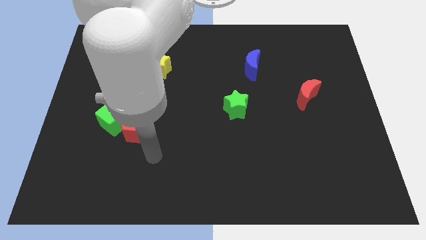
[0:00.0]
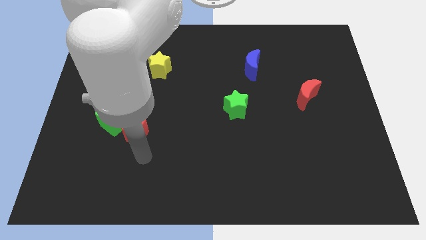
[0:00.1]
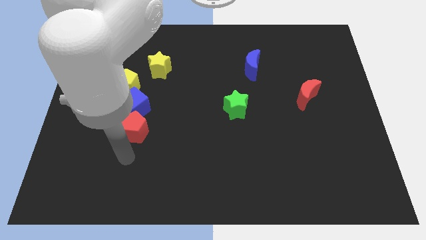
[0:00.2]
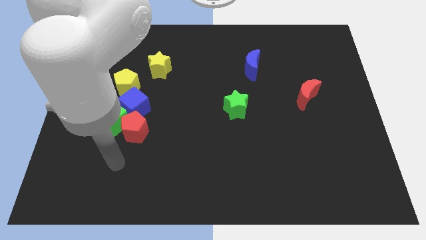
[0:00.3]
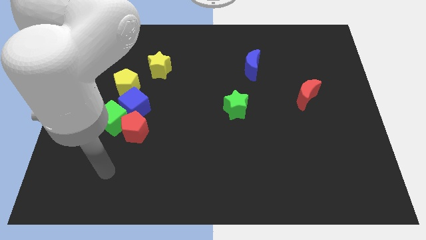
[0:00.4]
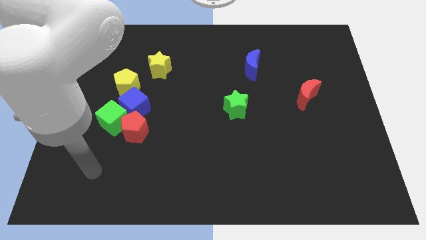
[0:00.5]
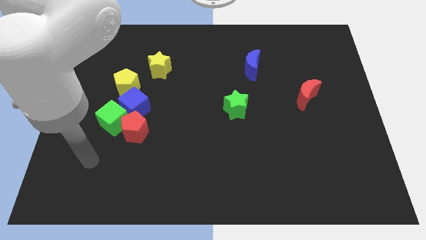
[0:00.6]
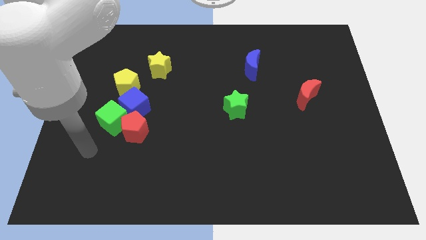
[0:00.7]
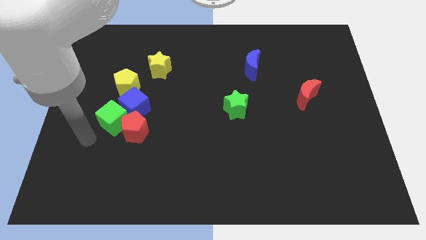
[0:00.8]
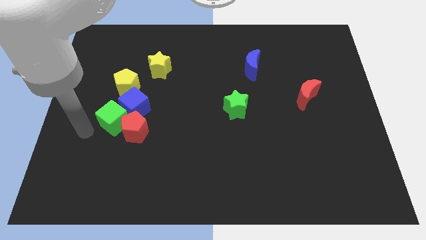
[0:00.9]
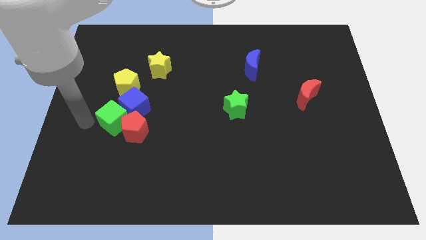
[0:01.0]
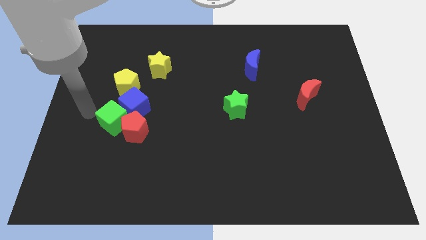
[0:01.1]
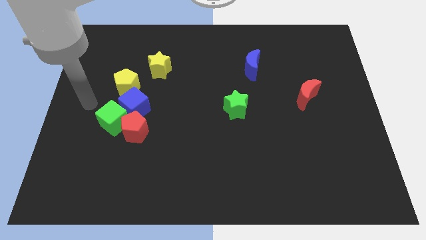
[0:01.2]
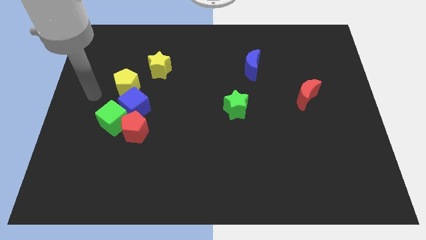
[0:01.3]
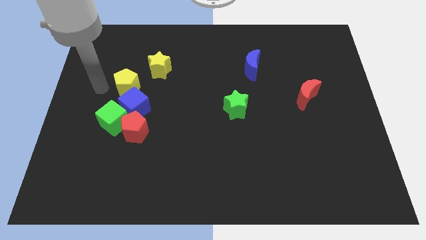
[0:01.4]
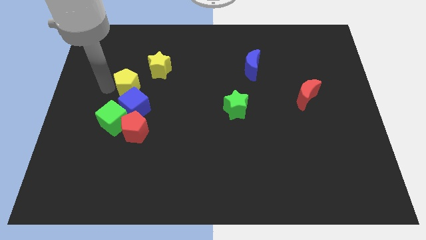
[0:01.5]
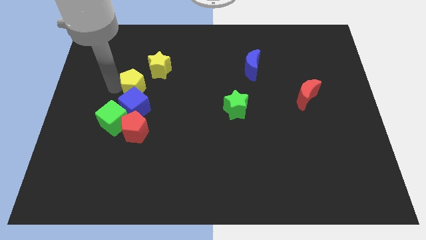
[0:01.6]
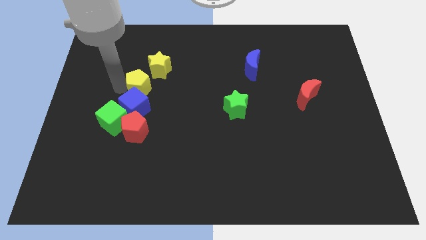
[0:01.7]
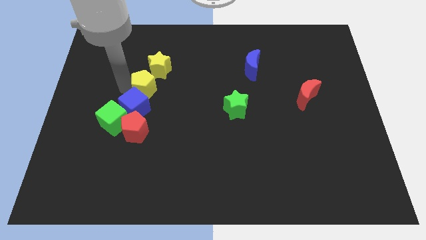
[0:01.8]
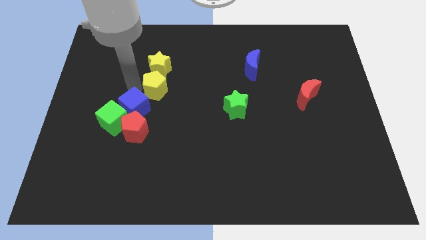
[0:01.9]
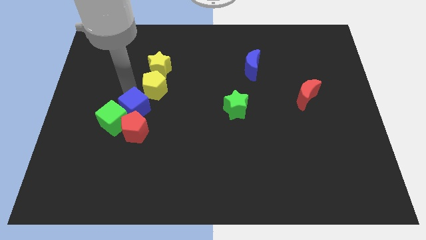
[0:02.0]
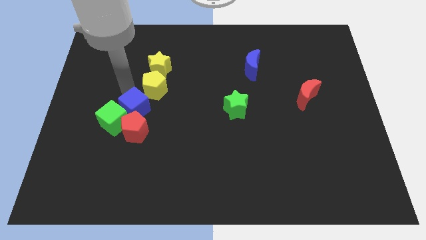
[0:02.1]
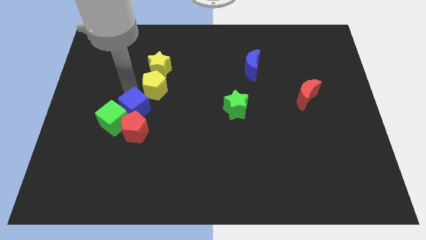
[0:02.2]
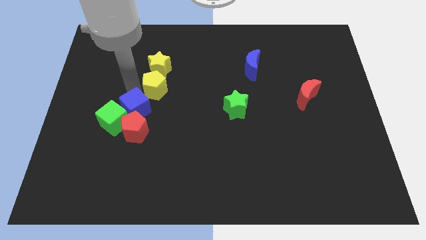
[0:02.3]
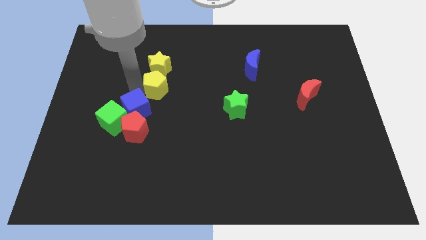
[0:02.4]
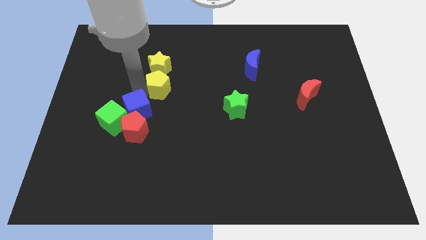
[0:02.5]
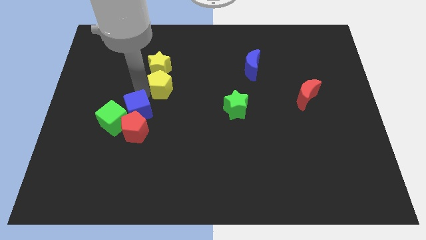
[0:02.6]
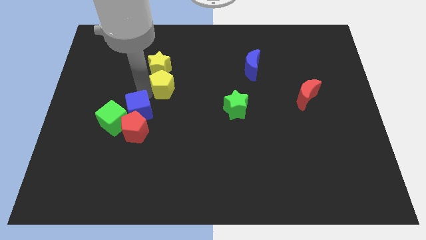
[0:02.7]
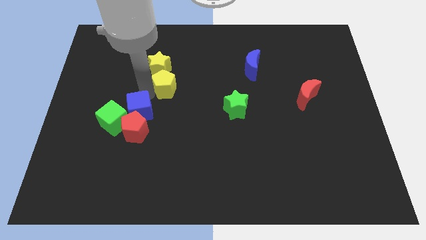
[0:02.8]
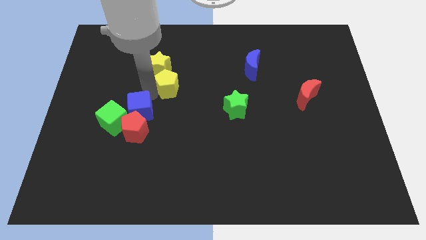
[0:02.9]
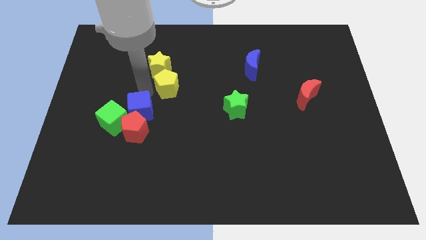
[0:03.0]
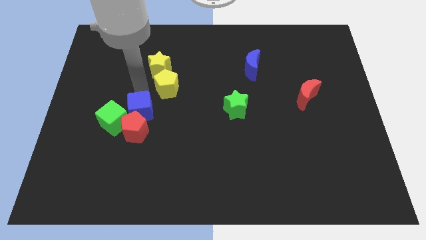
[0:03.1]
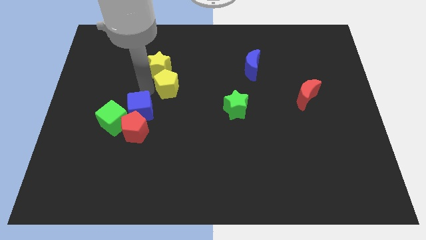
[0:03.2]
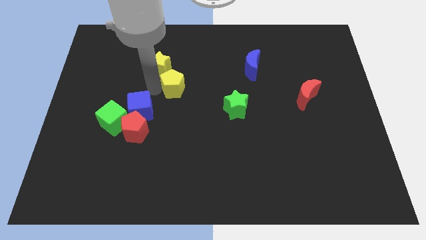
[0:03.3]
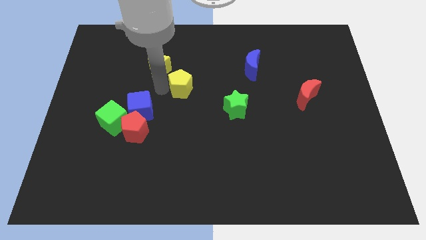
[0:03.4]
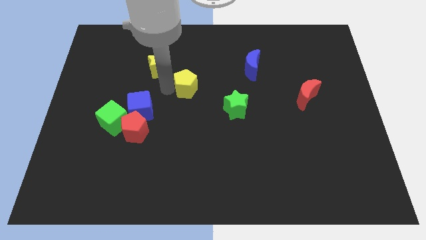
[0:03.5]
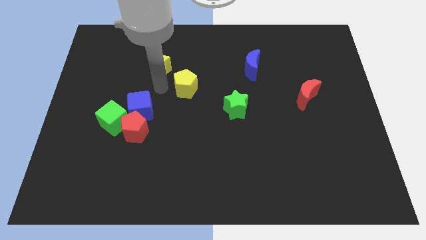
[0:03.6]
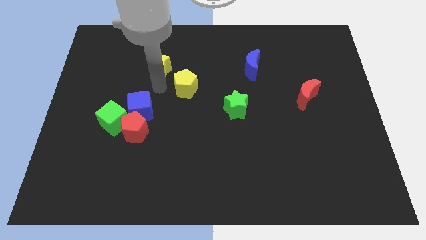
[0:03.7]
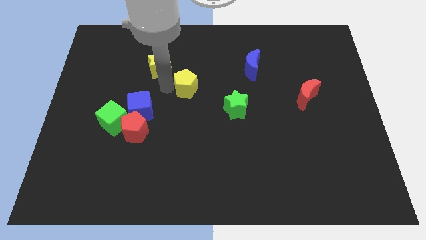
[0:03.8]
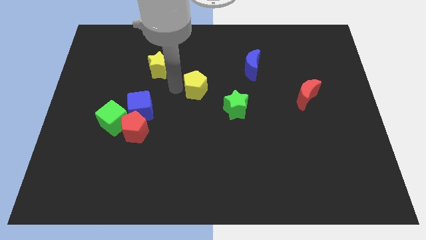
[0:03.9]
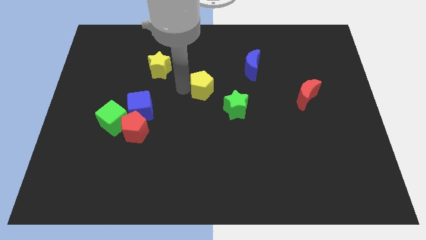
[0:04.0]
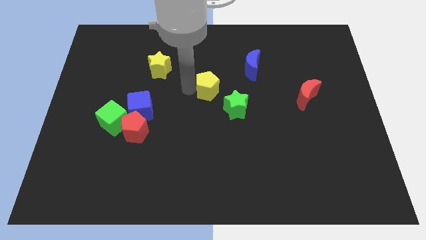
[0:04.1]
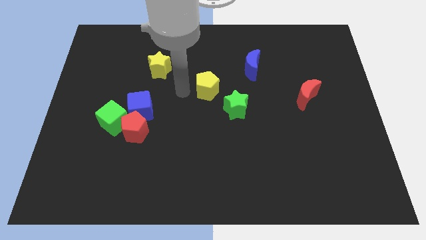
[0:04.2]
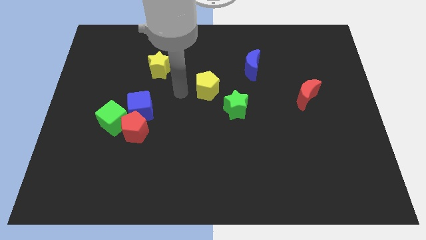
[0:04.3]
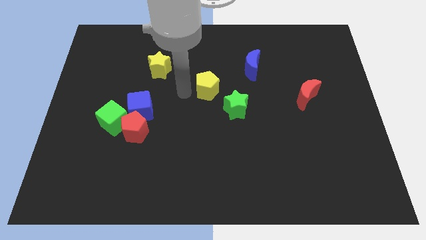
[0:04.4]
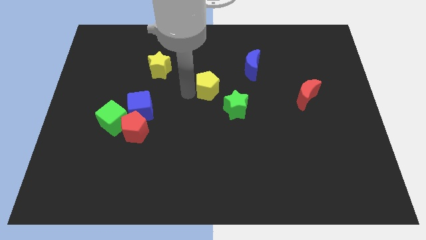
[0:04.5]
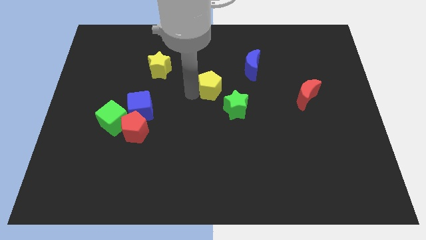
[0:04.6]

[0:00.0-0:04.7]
move the yellow pentagon to the right

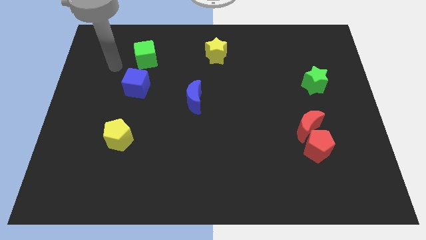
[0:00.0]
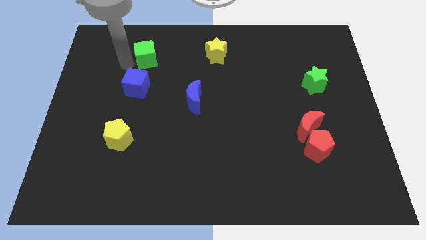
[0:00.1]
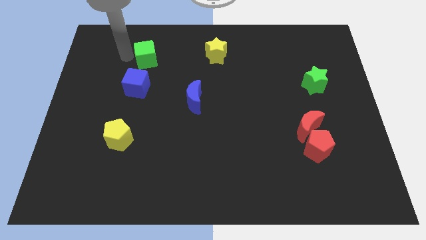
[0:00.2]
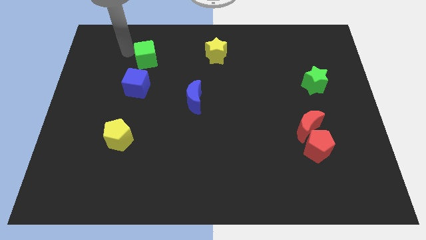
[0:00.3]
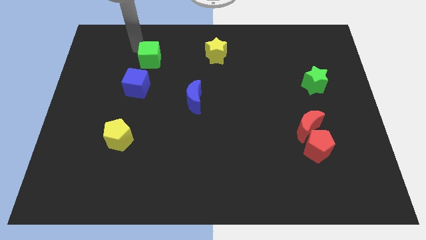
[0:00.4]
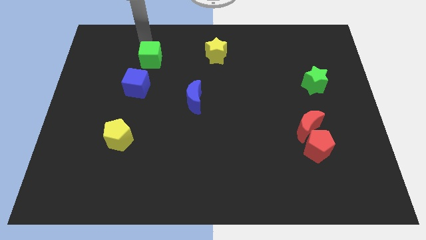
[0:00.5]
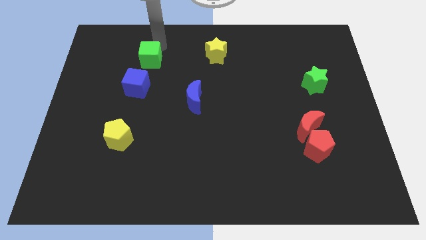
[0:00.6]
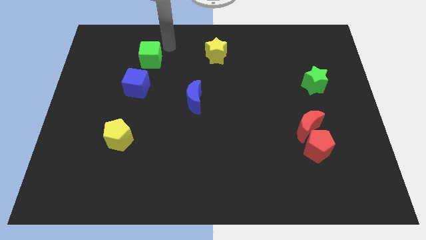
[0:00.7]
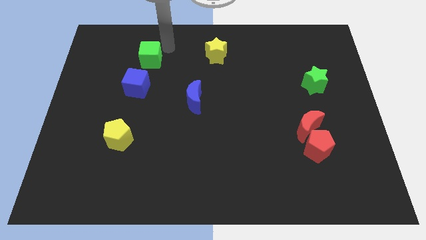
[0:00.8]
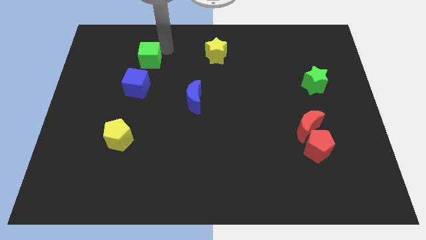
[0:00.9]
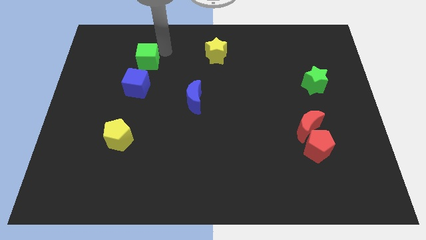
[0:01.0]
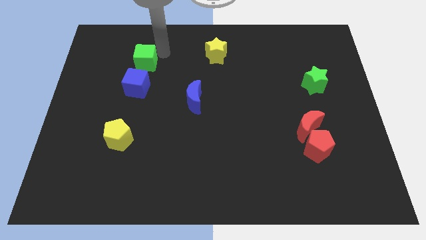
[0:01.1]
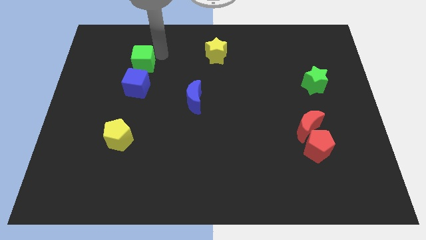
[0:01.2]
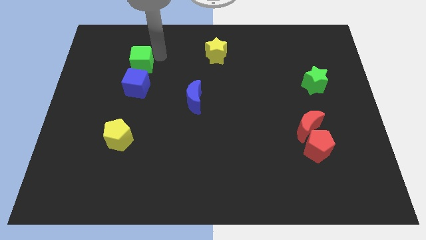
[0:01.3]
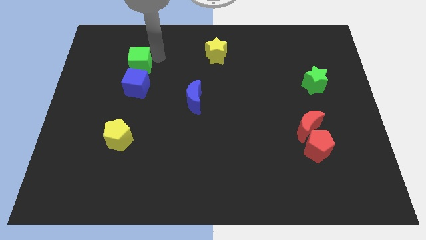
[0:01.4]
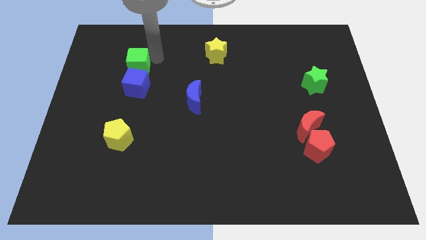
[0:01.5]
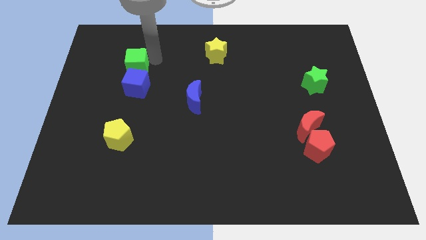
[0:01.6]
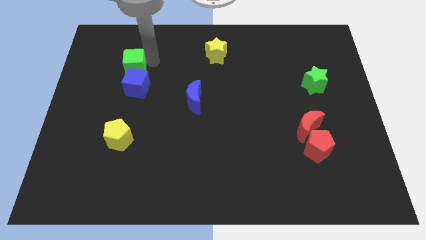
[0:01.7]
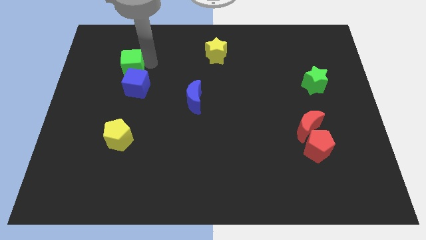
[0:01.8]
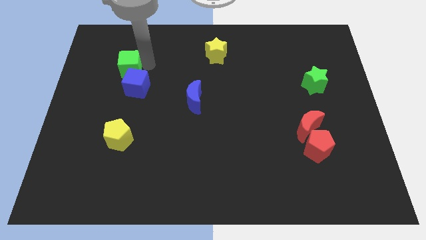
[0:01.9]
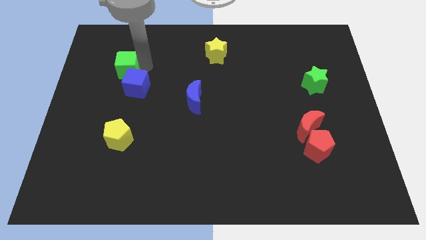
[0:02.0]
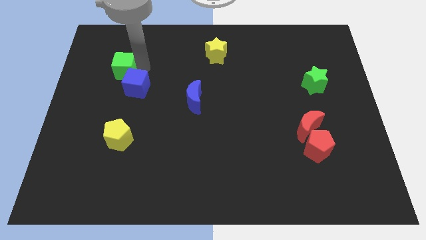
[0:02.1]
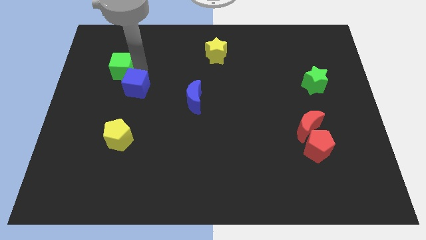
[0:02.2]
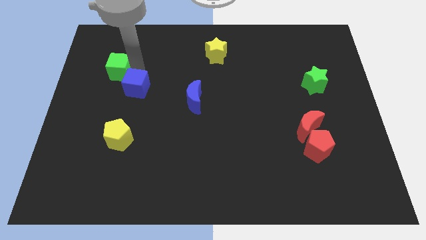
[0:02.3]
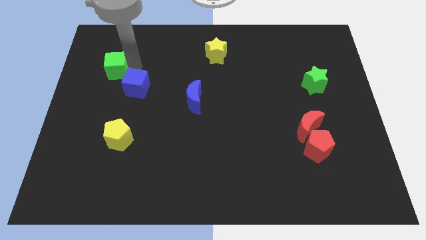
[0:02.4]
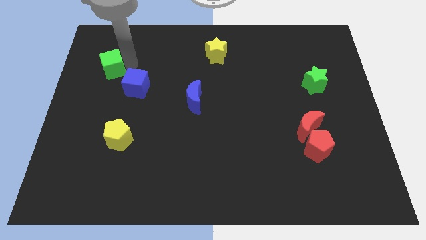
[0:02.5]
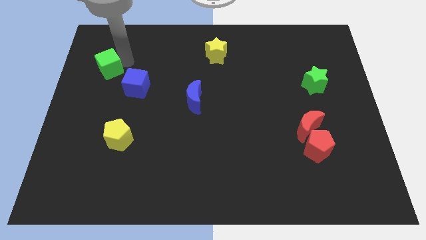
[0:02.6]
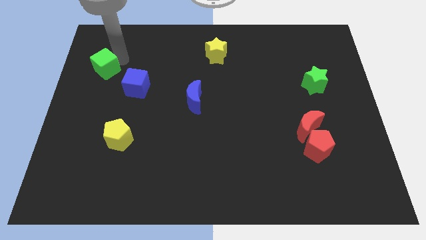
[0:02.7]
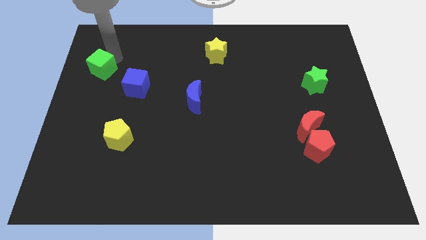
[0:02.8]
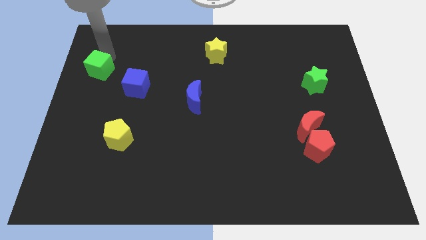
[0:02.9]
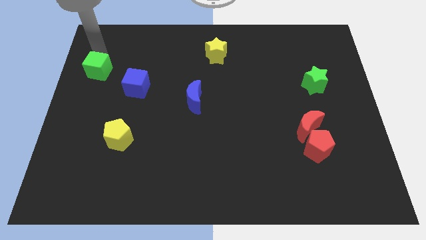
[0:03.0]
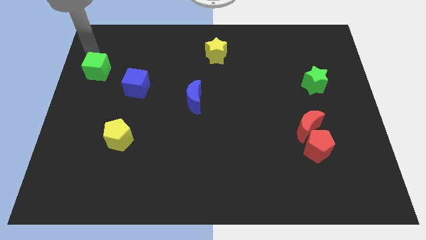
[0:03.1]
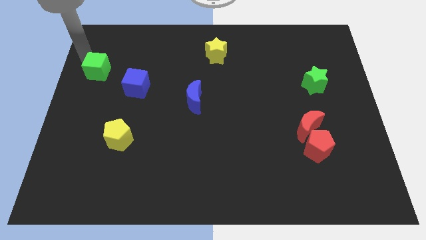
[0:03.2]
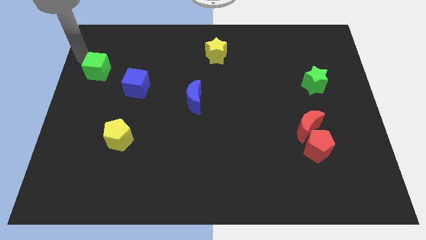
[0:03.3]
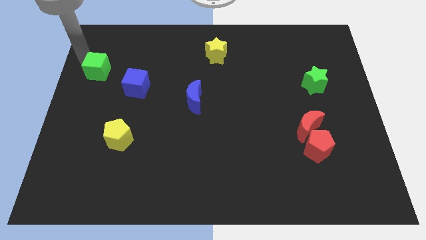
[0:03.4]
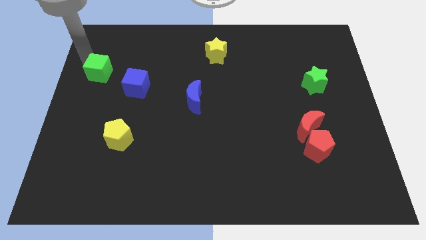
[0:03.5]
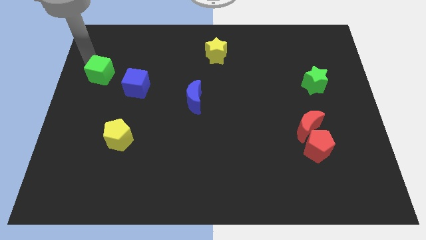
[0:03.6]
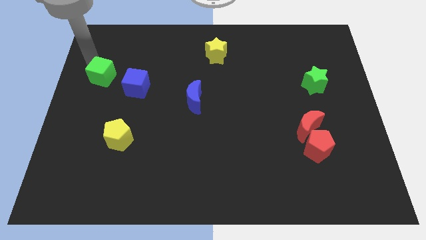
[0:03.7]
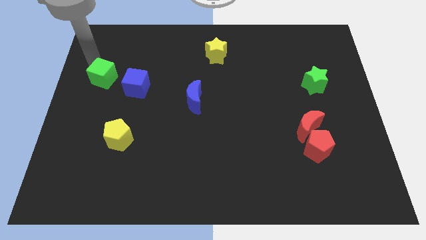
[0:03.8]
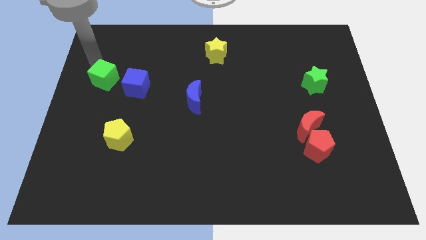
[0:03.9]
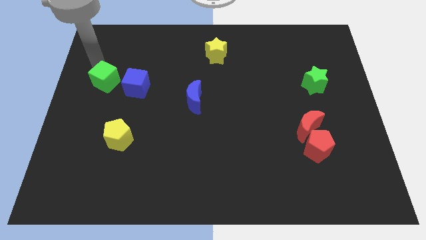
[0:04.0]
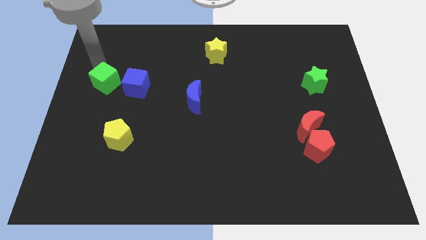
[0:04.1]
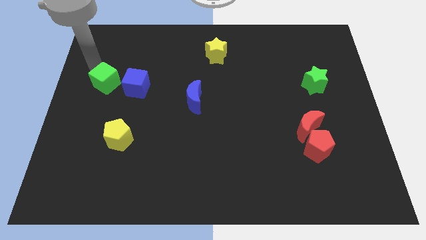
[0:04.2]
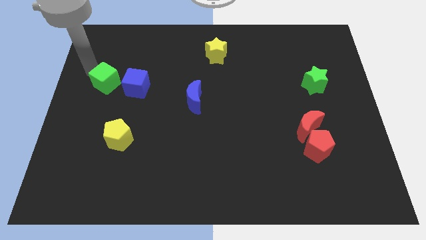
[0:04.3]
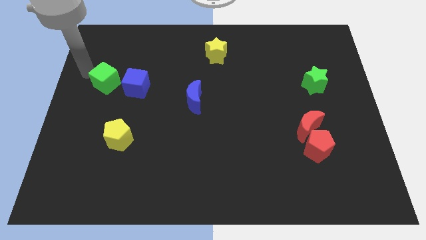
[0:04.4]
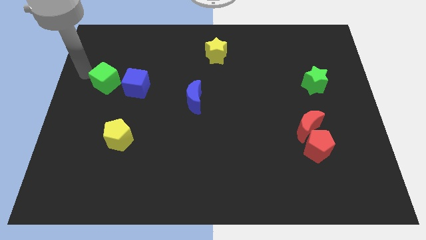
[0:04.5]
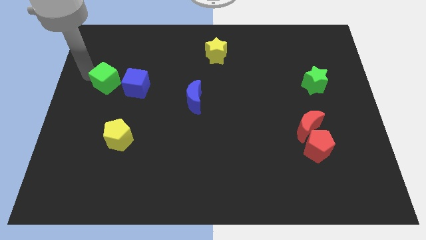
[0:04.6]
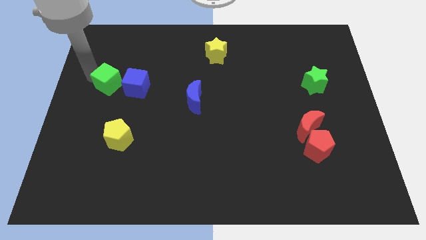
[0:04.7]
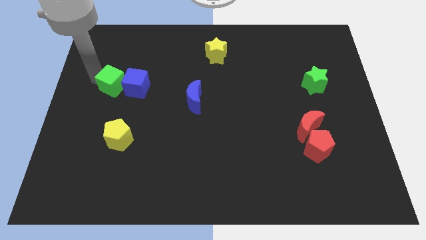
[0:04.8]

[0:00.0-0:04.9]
move the green cube downwards somewhat
